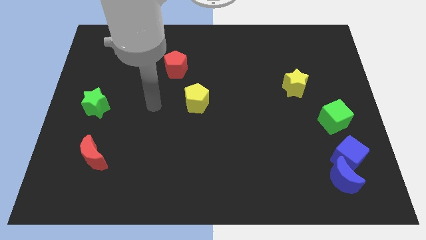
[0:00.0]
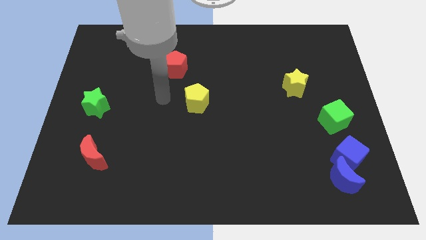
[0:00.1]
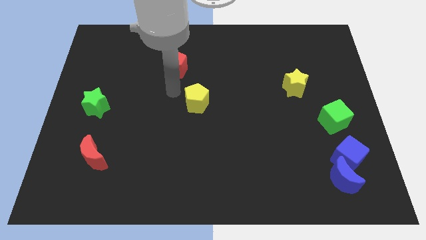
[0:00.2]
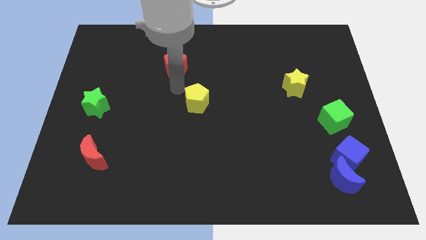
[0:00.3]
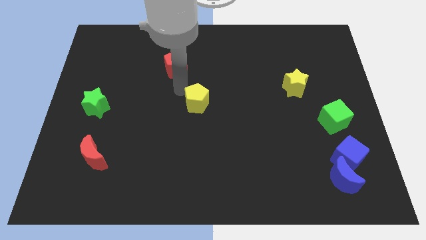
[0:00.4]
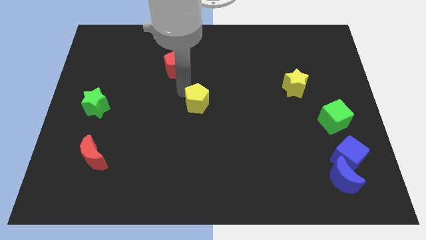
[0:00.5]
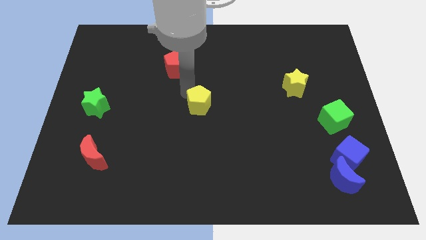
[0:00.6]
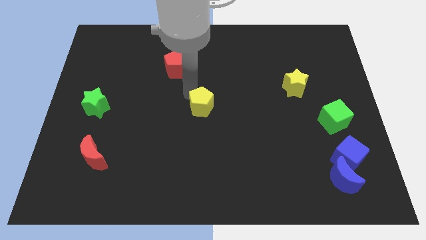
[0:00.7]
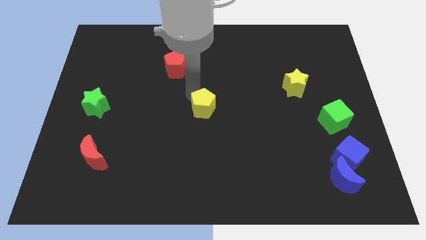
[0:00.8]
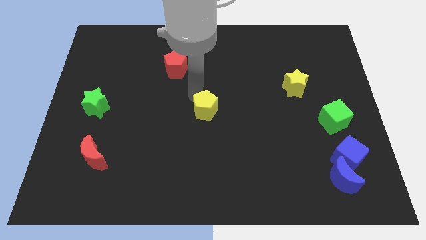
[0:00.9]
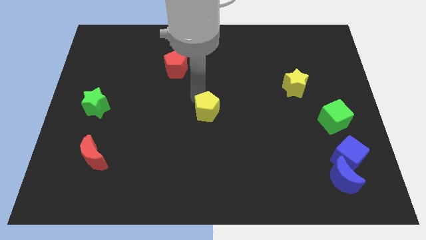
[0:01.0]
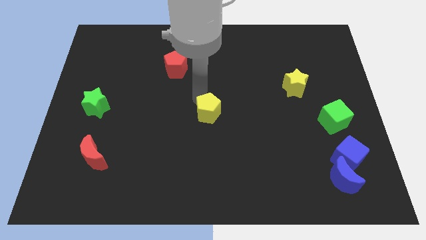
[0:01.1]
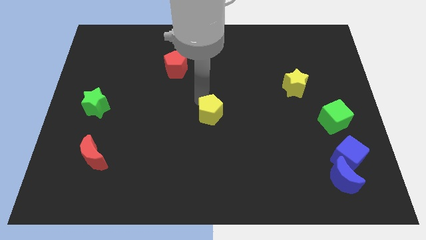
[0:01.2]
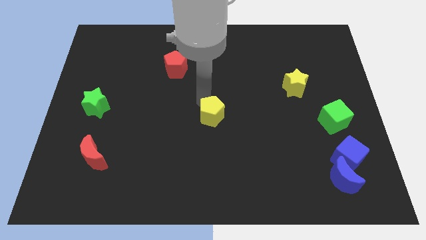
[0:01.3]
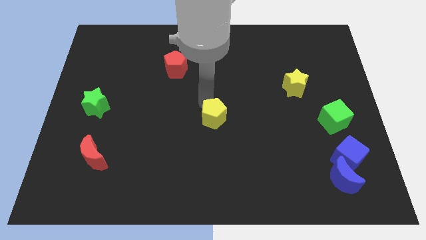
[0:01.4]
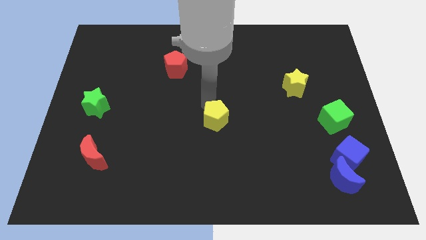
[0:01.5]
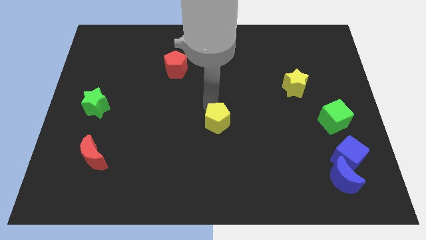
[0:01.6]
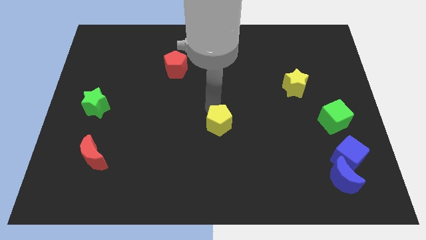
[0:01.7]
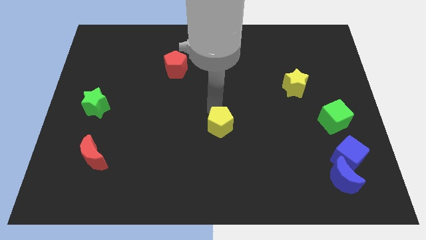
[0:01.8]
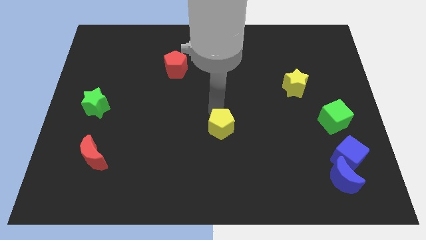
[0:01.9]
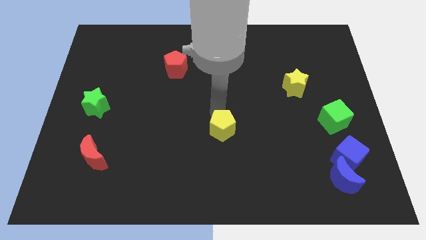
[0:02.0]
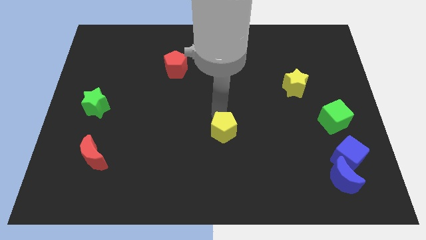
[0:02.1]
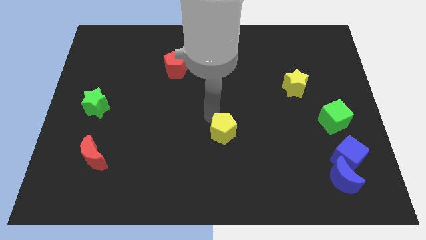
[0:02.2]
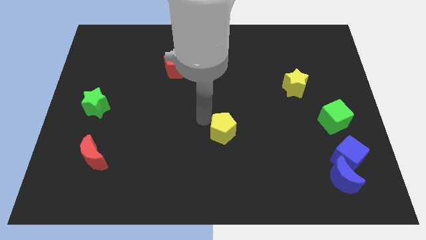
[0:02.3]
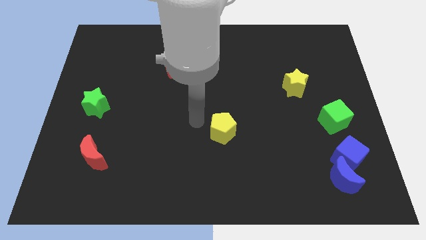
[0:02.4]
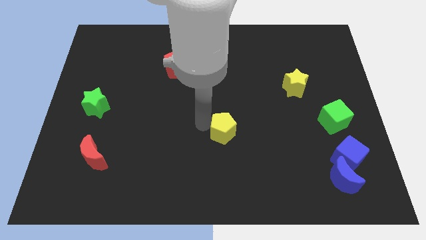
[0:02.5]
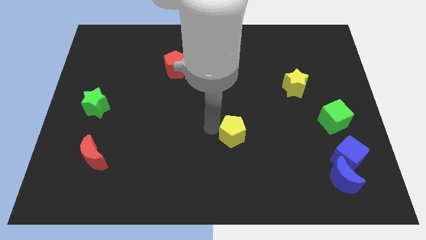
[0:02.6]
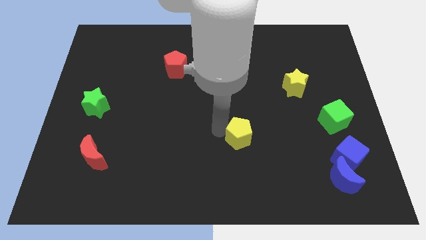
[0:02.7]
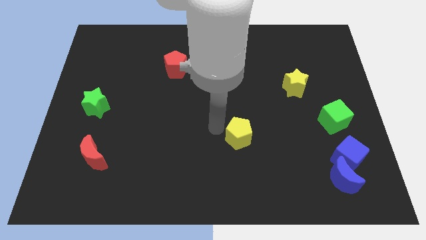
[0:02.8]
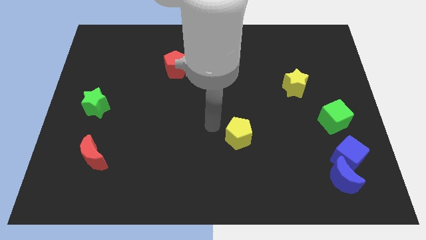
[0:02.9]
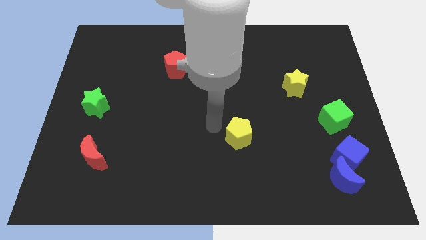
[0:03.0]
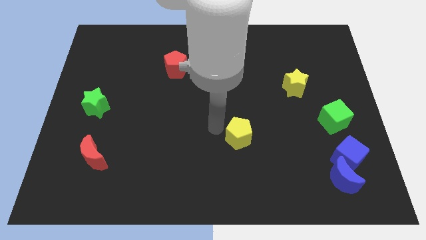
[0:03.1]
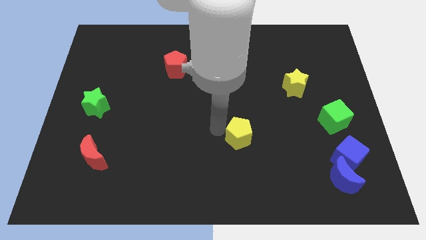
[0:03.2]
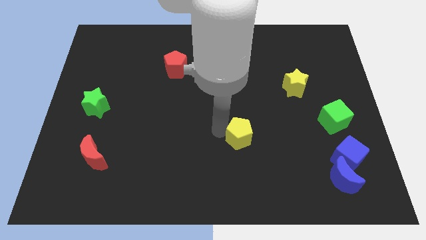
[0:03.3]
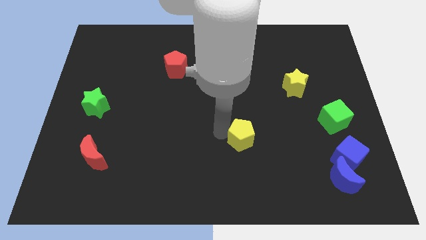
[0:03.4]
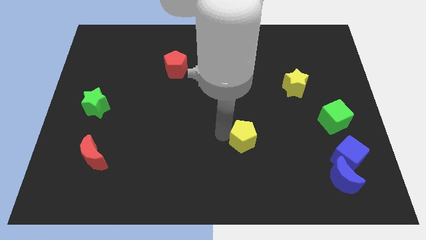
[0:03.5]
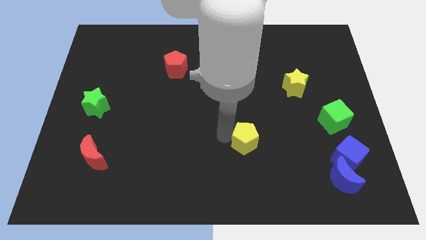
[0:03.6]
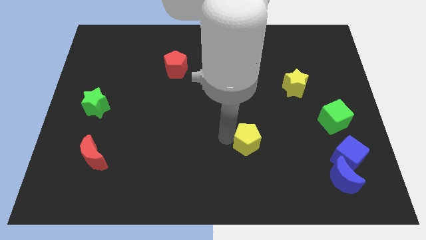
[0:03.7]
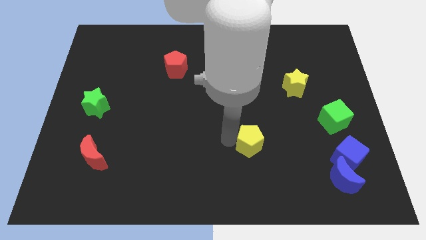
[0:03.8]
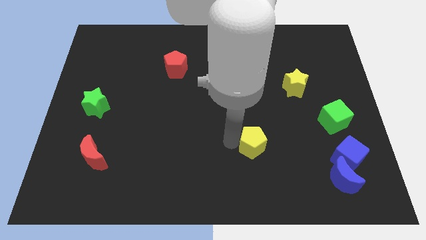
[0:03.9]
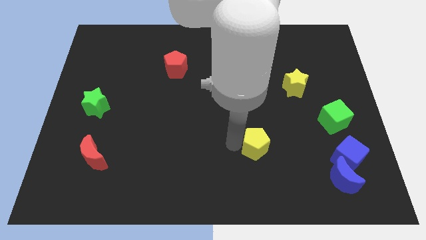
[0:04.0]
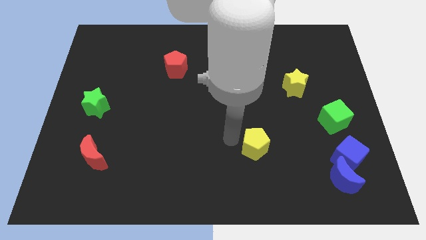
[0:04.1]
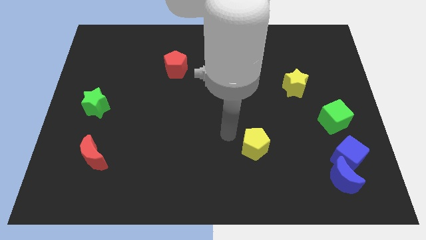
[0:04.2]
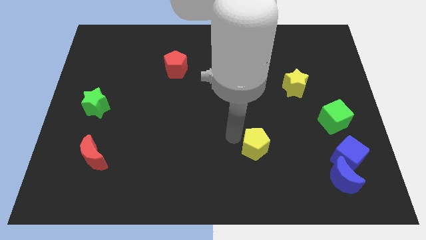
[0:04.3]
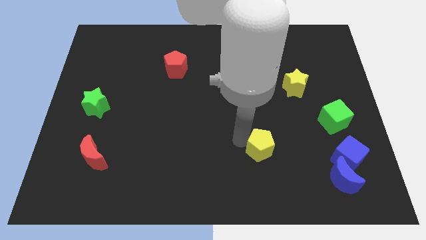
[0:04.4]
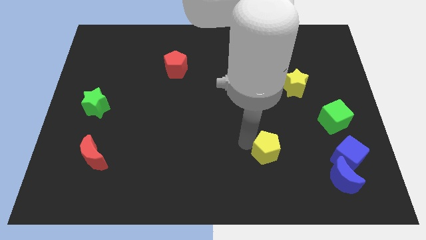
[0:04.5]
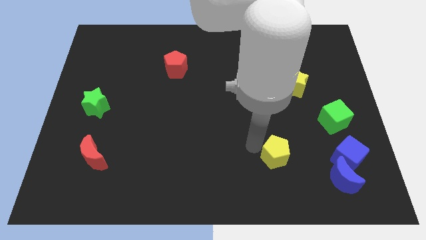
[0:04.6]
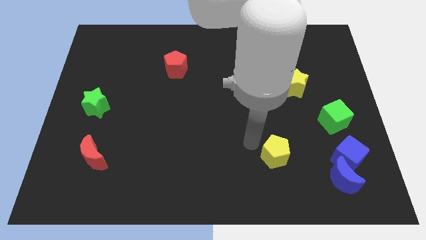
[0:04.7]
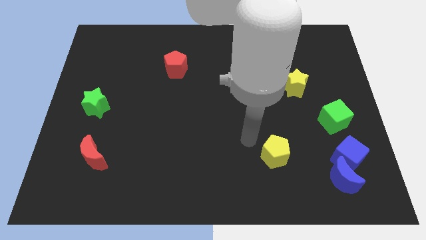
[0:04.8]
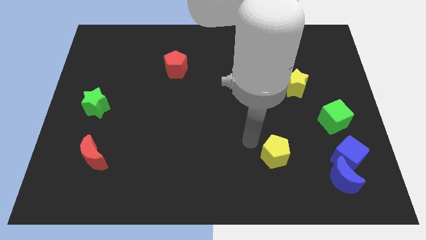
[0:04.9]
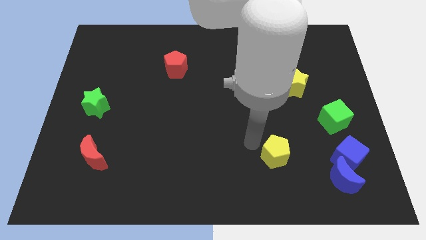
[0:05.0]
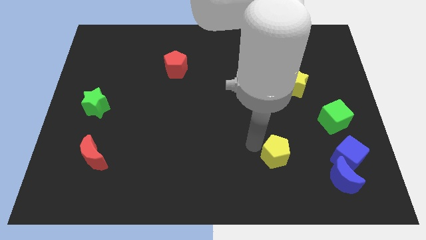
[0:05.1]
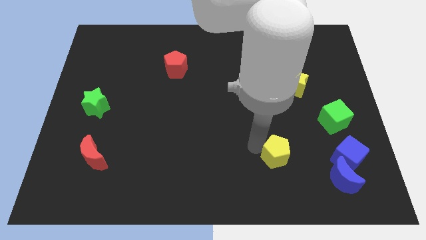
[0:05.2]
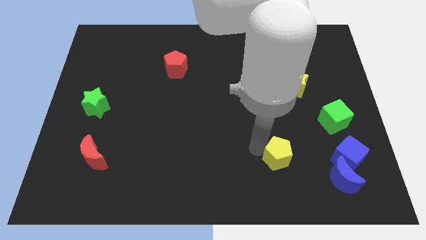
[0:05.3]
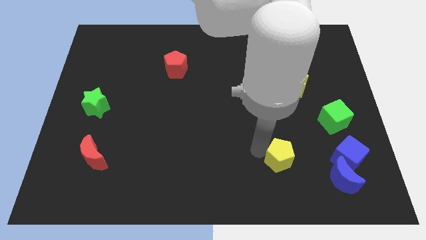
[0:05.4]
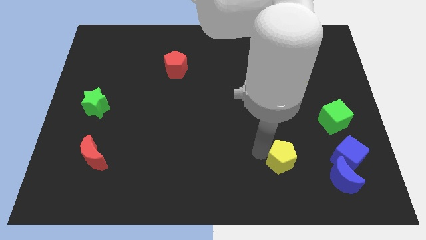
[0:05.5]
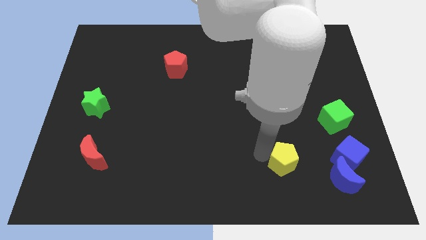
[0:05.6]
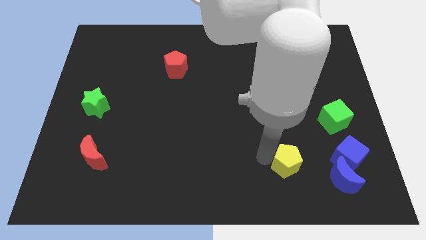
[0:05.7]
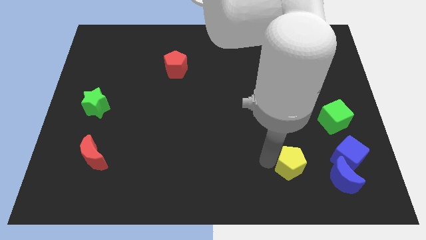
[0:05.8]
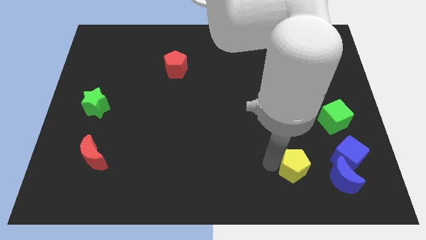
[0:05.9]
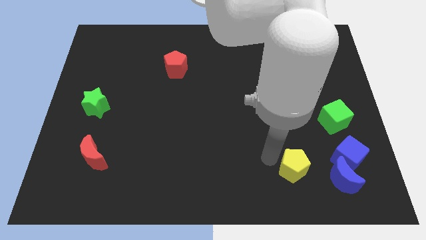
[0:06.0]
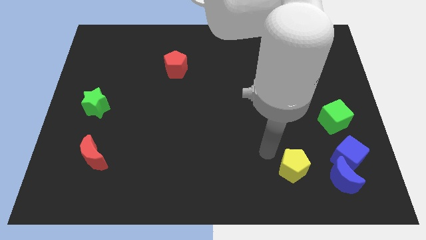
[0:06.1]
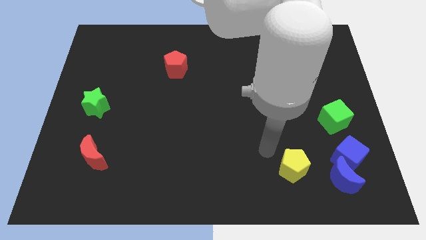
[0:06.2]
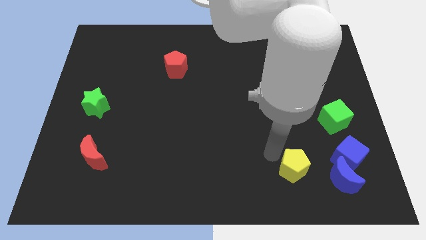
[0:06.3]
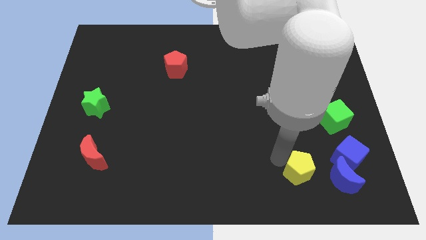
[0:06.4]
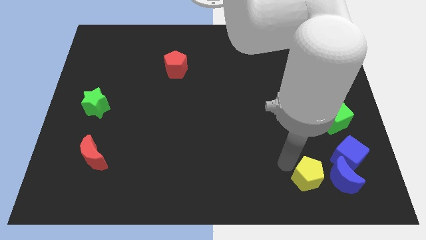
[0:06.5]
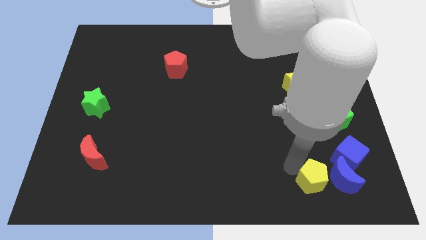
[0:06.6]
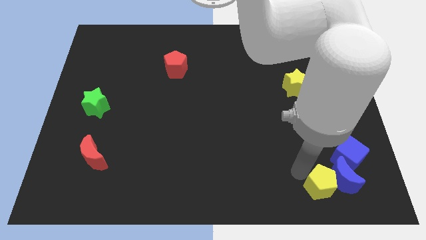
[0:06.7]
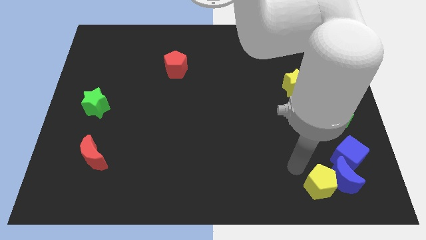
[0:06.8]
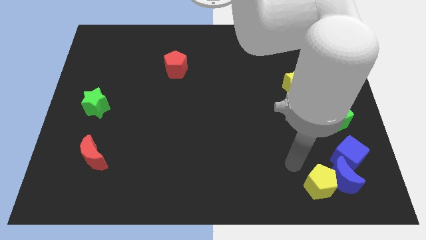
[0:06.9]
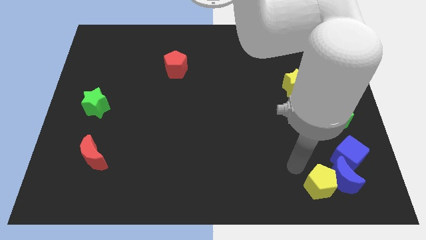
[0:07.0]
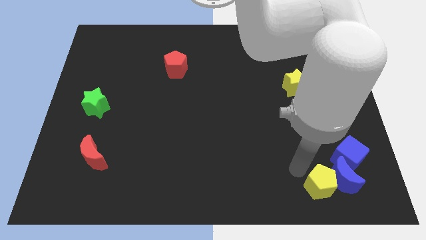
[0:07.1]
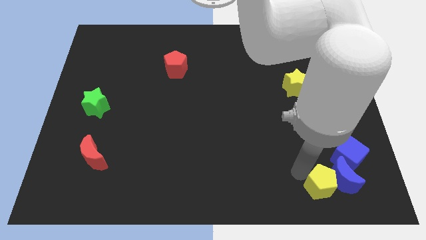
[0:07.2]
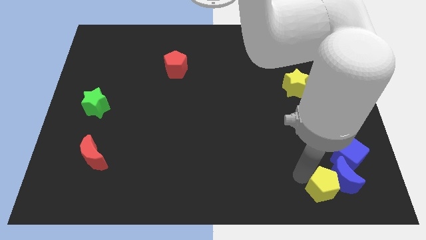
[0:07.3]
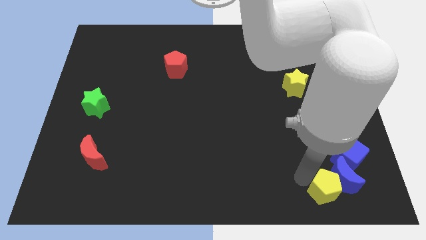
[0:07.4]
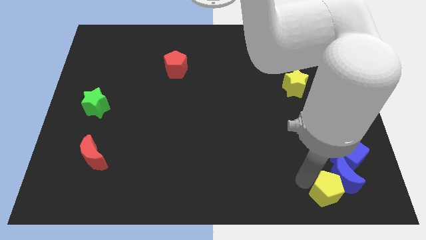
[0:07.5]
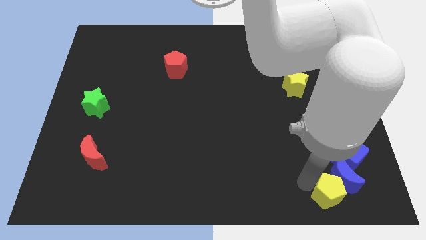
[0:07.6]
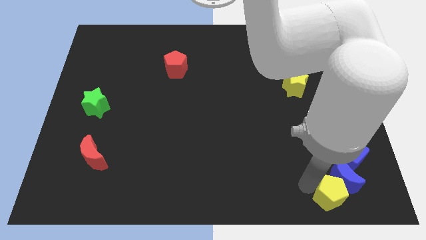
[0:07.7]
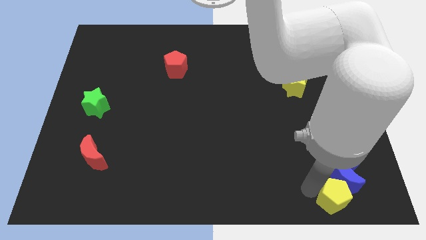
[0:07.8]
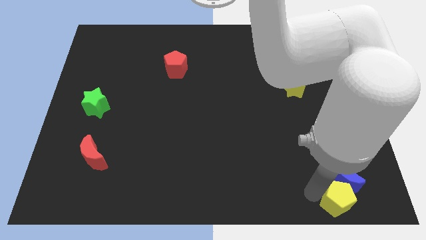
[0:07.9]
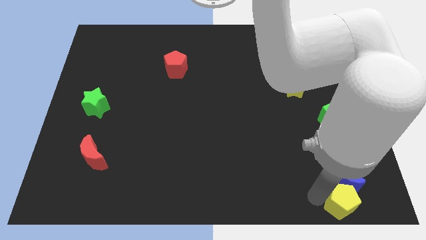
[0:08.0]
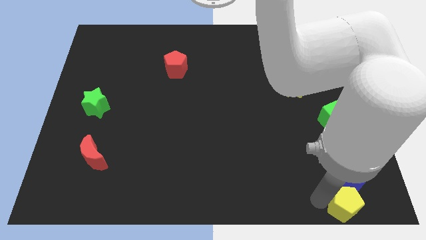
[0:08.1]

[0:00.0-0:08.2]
push the yellow pentagon to the lower right corner
